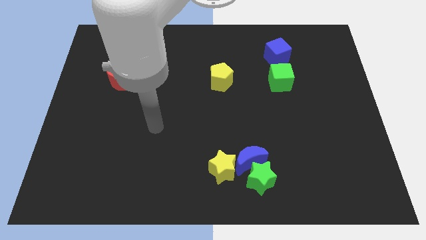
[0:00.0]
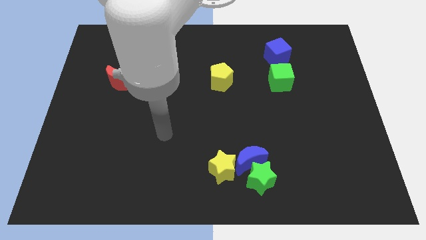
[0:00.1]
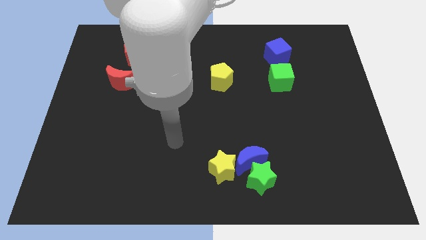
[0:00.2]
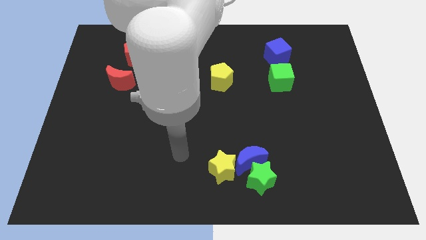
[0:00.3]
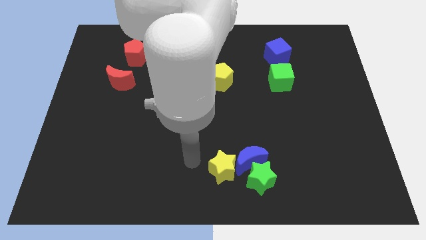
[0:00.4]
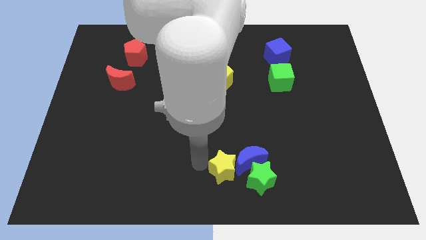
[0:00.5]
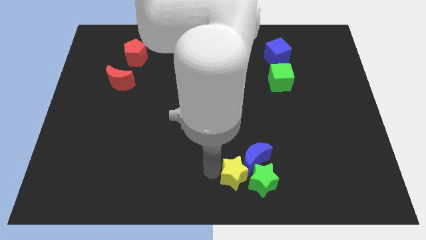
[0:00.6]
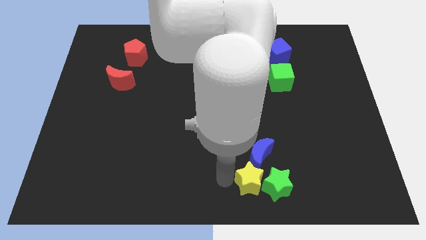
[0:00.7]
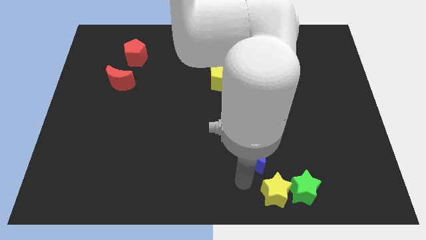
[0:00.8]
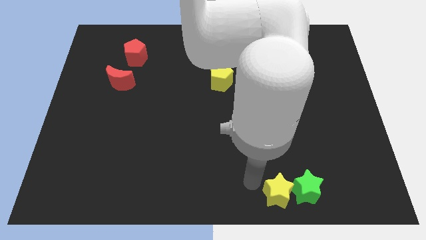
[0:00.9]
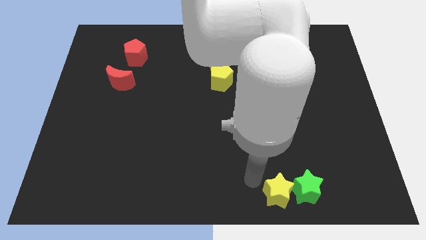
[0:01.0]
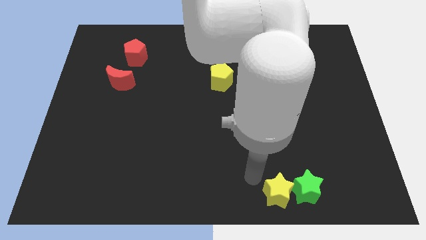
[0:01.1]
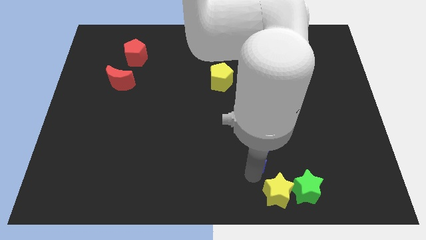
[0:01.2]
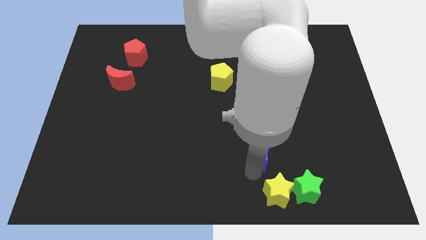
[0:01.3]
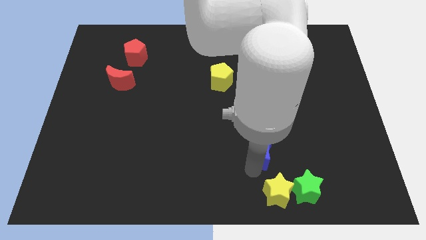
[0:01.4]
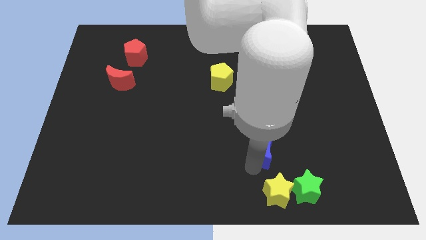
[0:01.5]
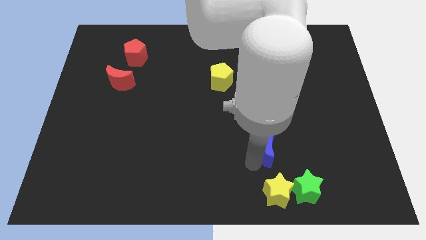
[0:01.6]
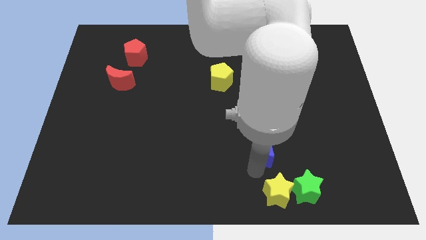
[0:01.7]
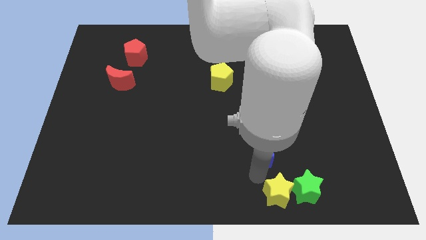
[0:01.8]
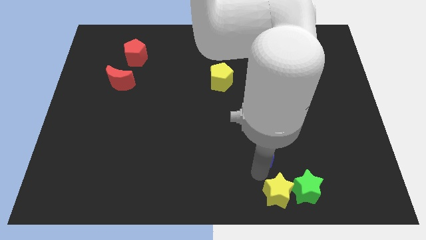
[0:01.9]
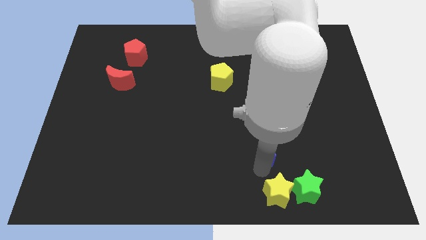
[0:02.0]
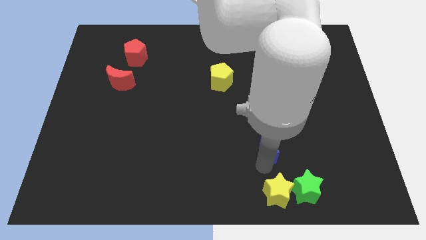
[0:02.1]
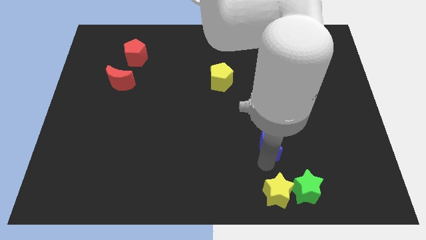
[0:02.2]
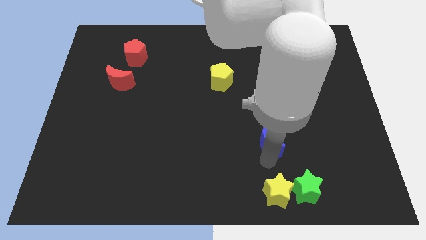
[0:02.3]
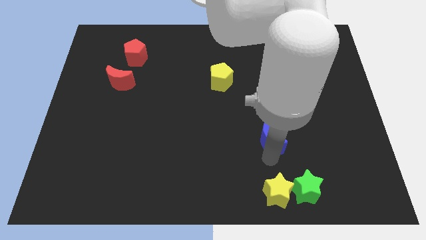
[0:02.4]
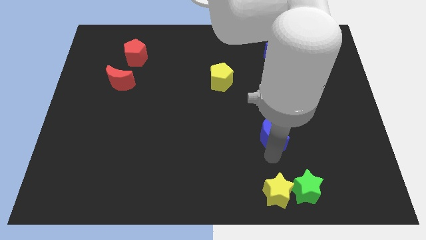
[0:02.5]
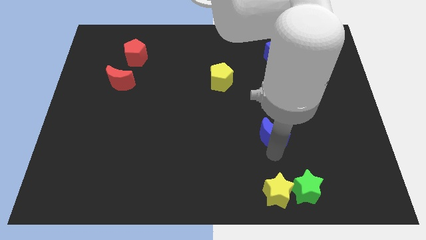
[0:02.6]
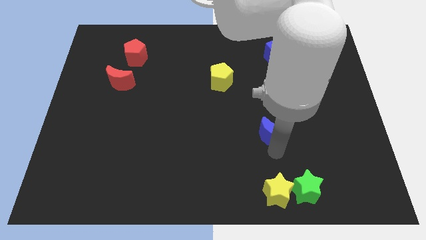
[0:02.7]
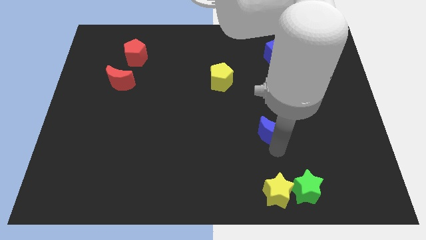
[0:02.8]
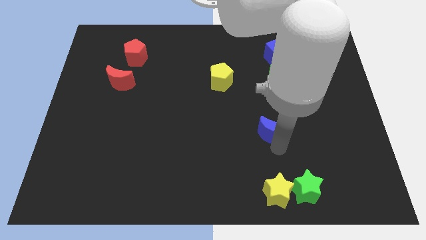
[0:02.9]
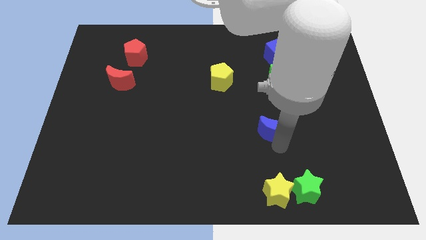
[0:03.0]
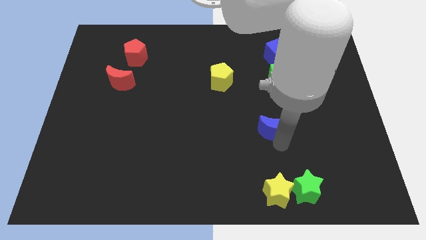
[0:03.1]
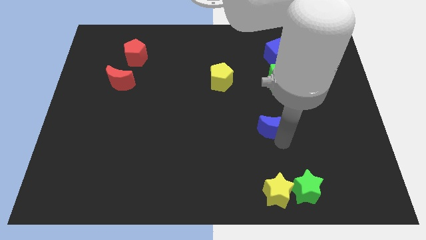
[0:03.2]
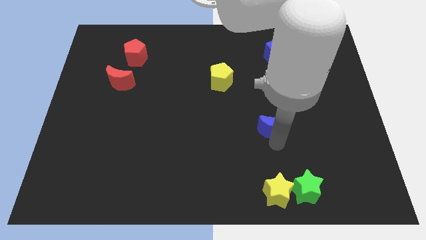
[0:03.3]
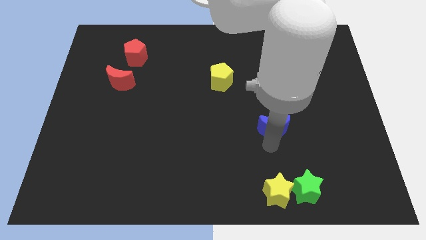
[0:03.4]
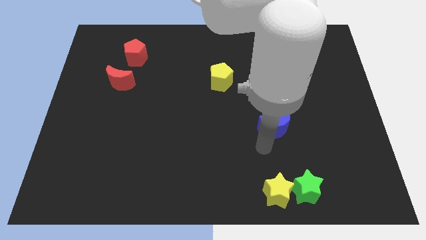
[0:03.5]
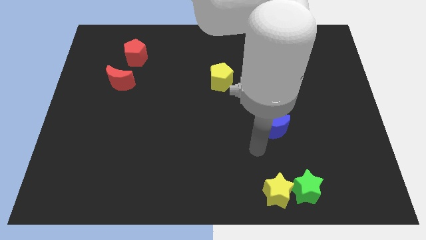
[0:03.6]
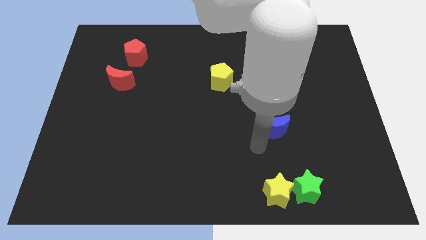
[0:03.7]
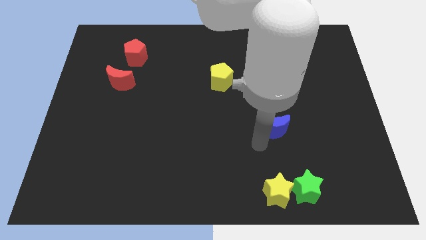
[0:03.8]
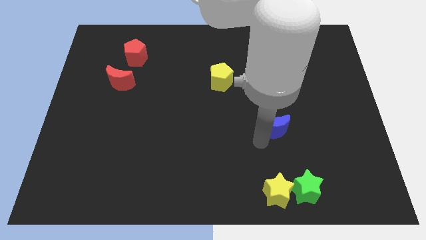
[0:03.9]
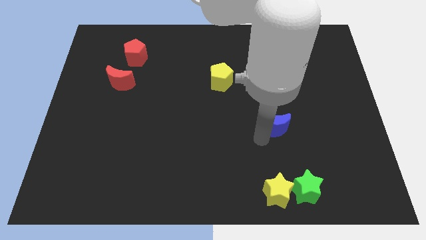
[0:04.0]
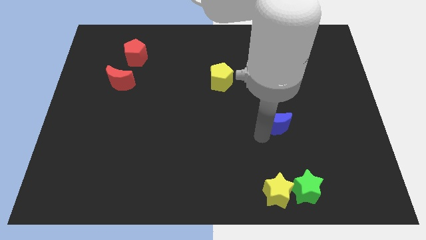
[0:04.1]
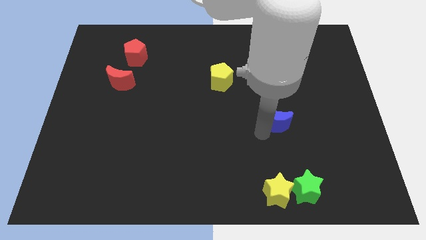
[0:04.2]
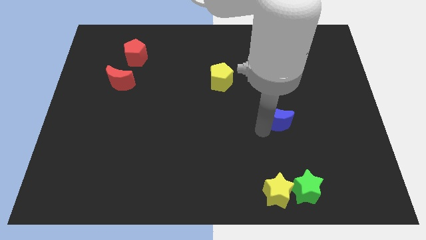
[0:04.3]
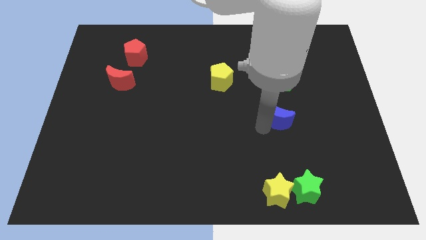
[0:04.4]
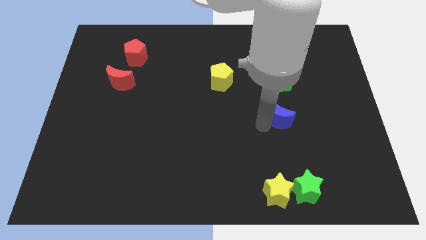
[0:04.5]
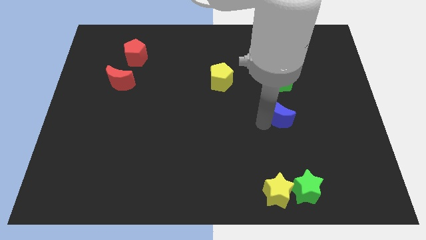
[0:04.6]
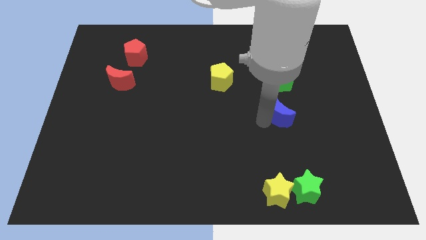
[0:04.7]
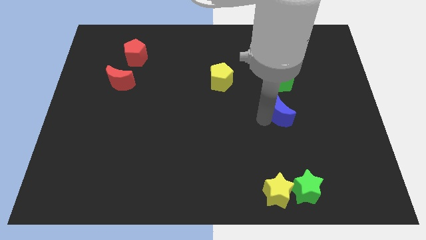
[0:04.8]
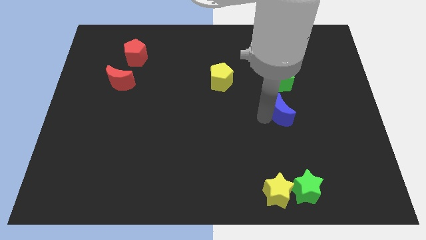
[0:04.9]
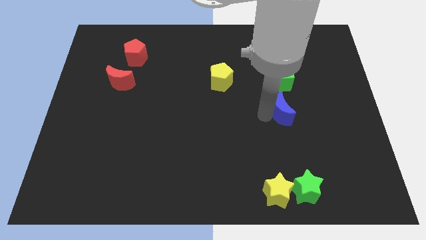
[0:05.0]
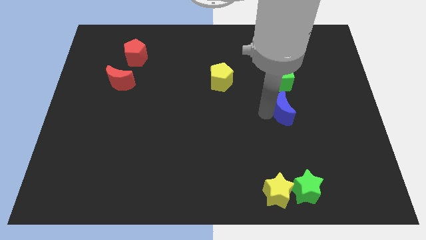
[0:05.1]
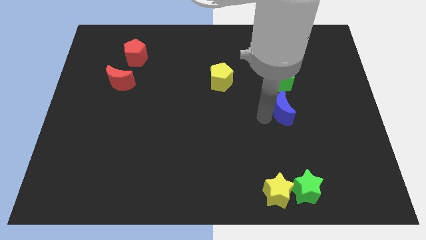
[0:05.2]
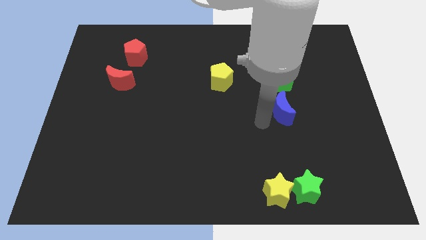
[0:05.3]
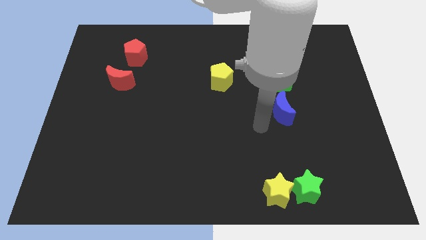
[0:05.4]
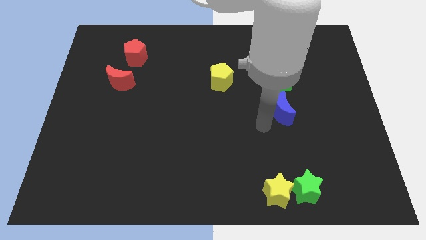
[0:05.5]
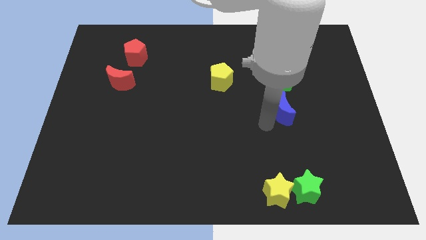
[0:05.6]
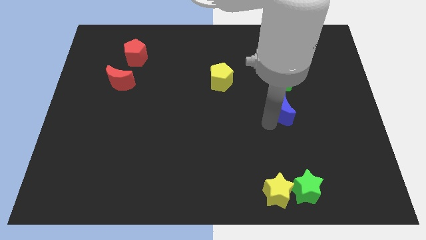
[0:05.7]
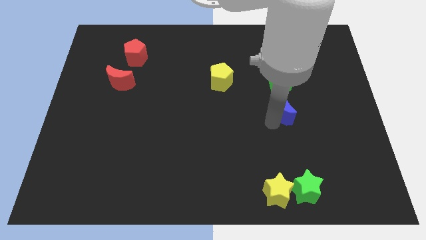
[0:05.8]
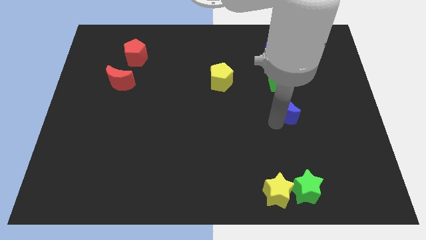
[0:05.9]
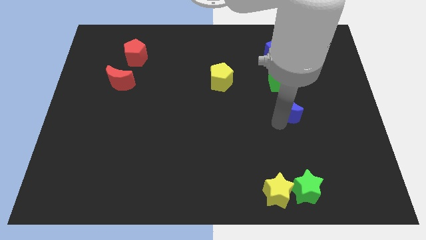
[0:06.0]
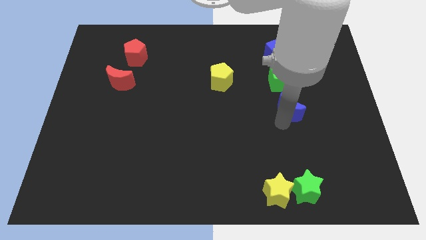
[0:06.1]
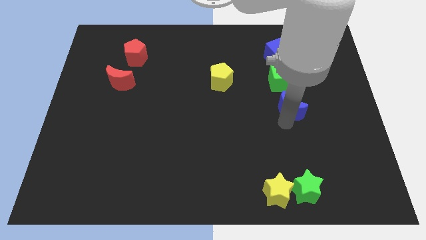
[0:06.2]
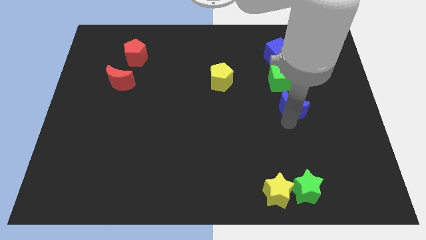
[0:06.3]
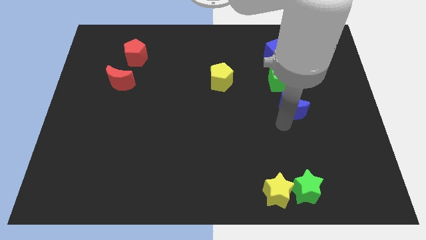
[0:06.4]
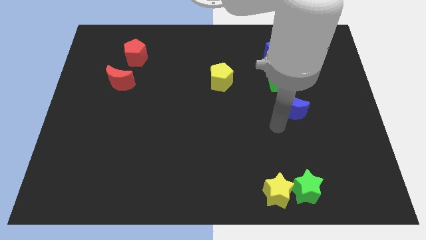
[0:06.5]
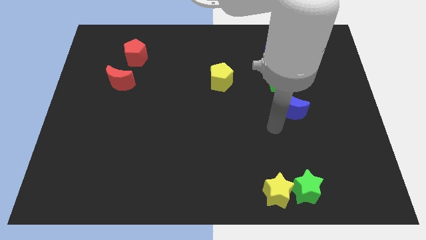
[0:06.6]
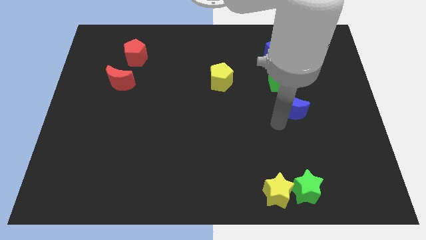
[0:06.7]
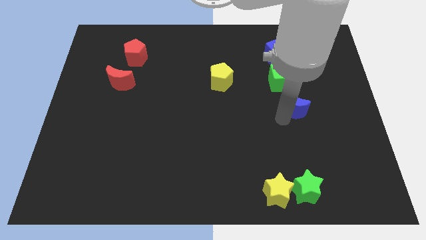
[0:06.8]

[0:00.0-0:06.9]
push the blue moon to the bottom right side of the green cube

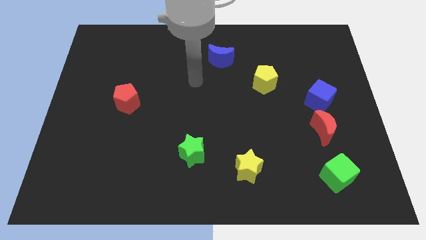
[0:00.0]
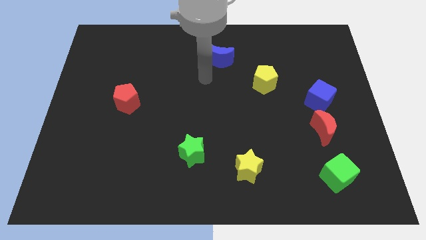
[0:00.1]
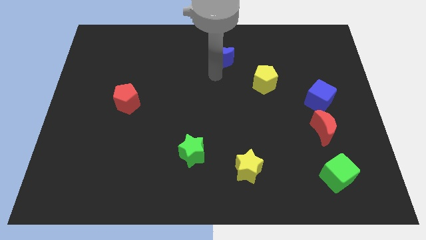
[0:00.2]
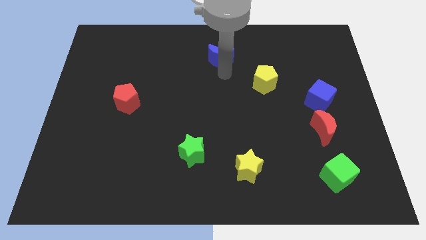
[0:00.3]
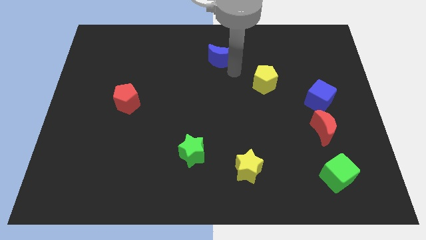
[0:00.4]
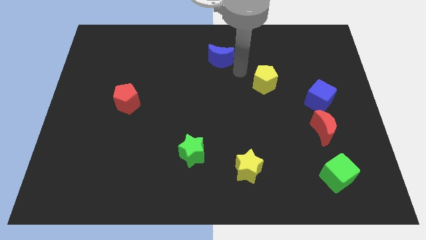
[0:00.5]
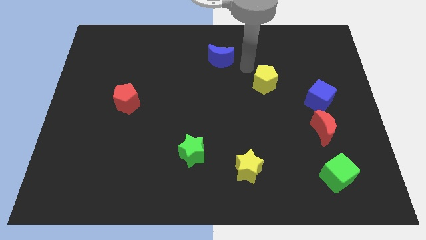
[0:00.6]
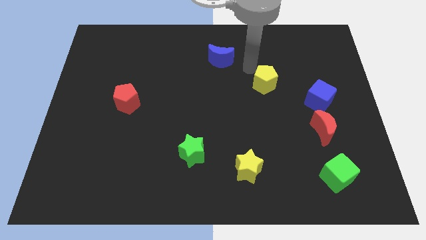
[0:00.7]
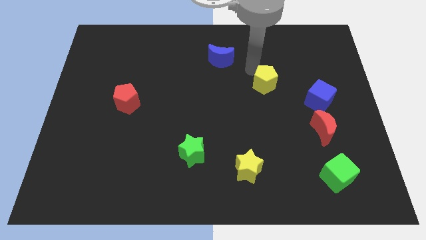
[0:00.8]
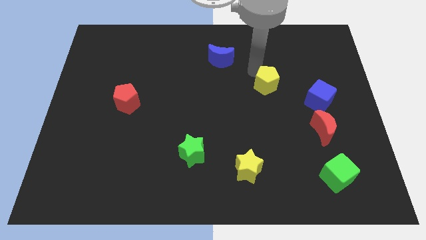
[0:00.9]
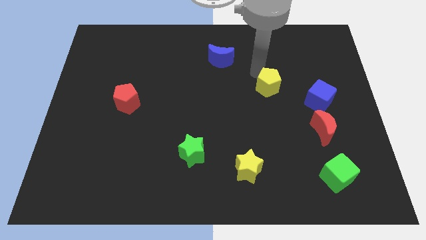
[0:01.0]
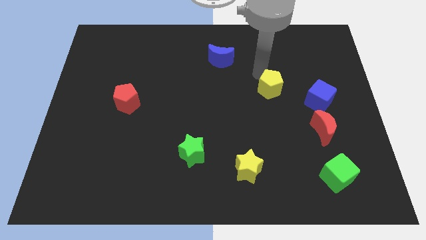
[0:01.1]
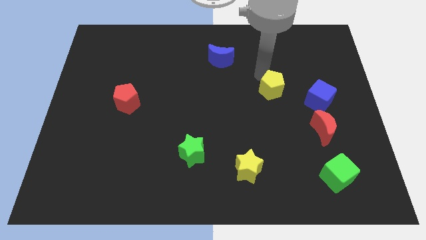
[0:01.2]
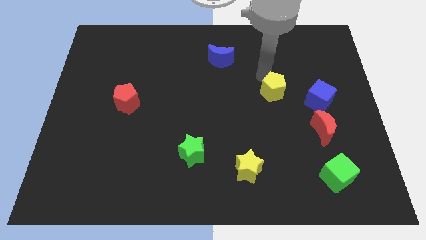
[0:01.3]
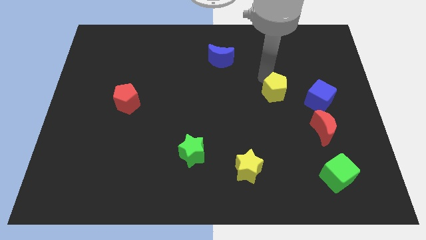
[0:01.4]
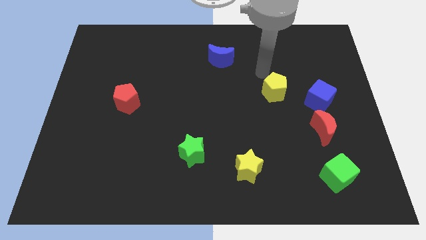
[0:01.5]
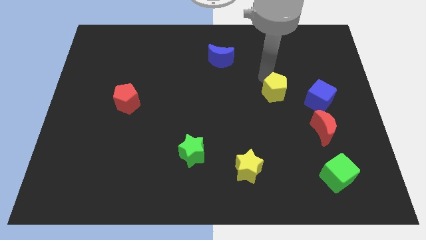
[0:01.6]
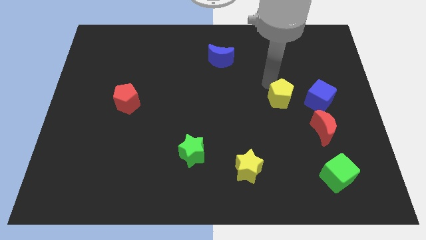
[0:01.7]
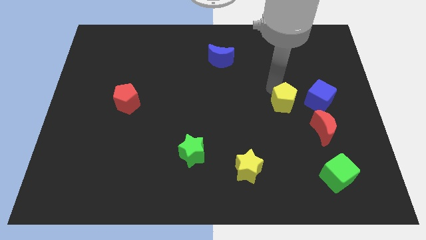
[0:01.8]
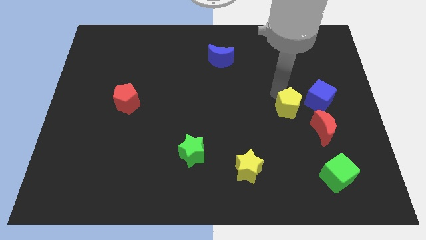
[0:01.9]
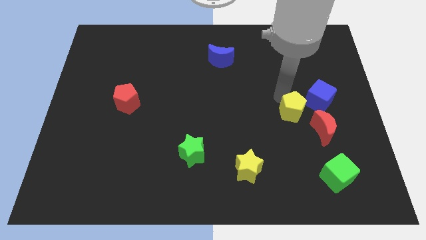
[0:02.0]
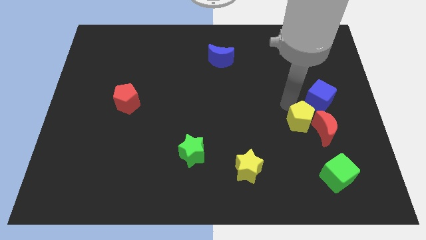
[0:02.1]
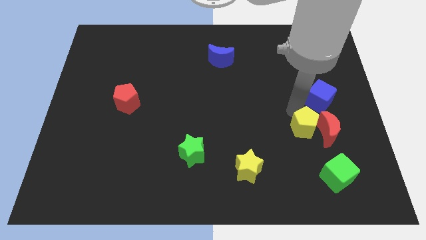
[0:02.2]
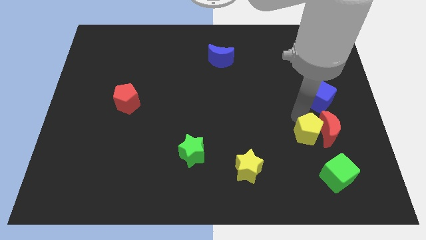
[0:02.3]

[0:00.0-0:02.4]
push the yellow pentagon to the top left side of the green cube
